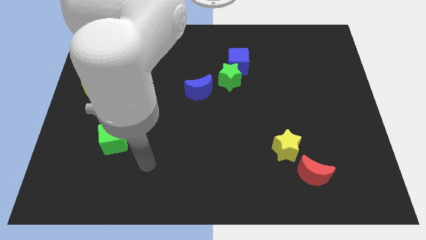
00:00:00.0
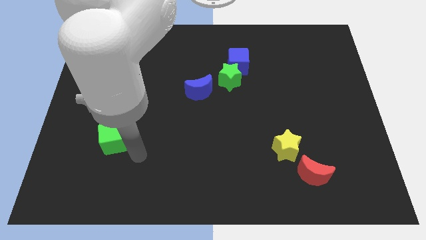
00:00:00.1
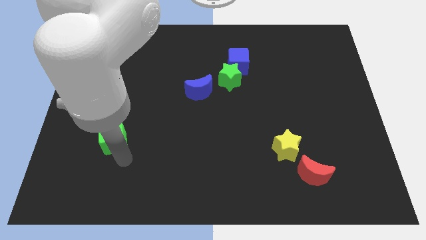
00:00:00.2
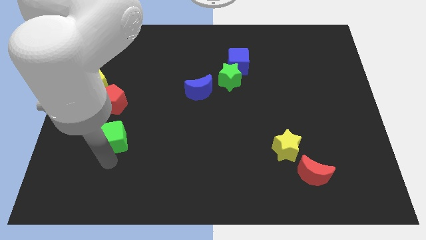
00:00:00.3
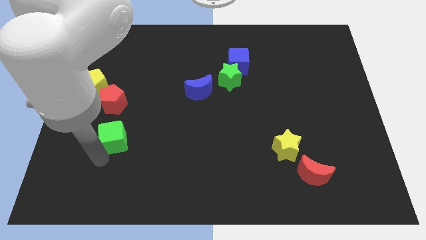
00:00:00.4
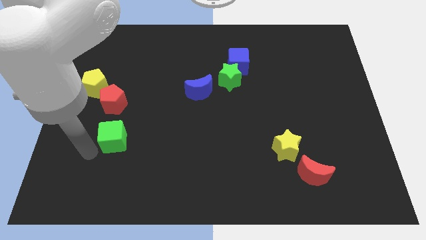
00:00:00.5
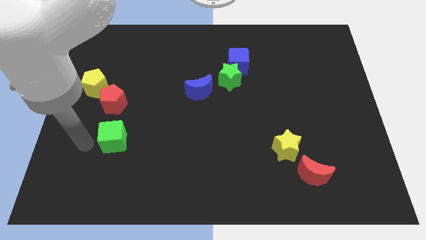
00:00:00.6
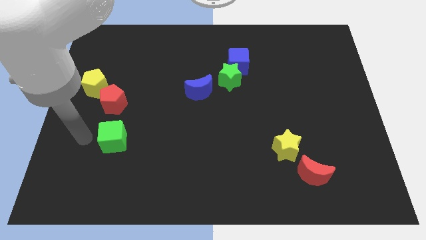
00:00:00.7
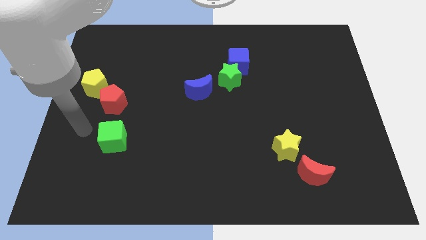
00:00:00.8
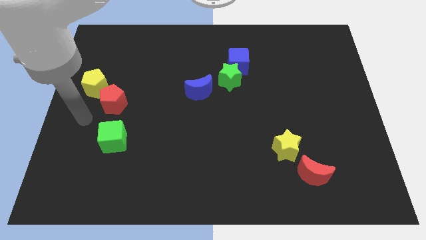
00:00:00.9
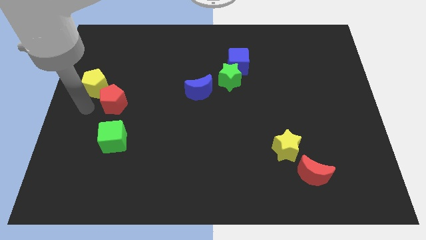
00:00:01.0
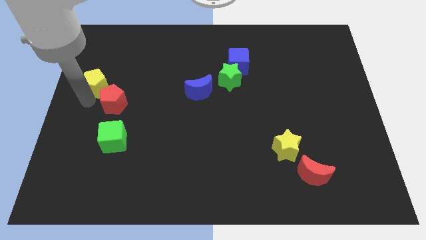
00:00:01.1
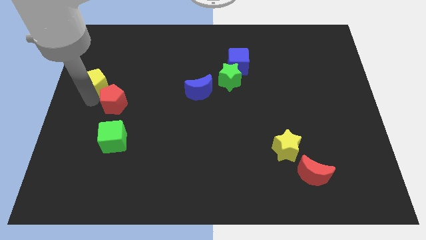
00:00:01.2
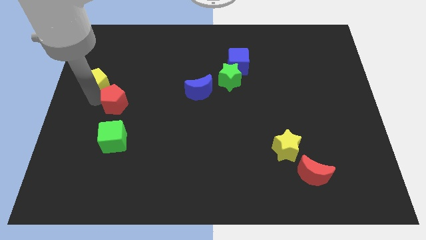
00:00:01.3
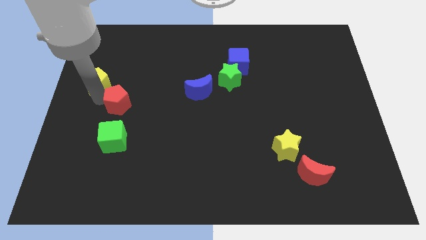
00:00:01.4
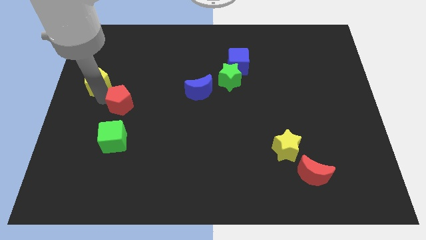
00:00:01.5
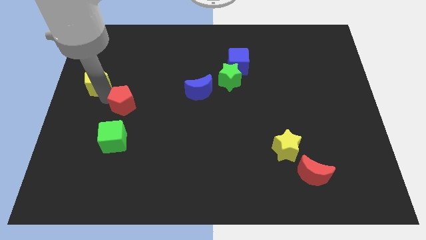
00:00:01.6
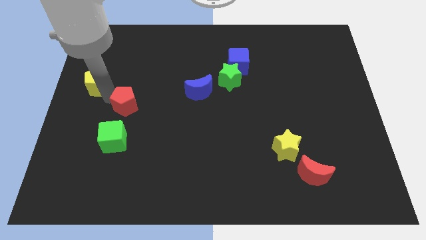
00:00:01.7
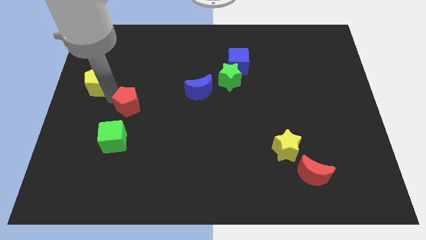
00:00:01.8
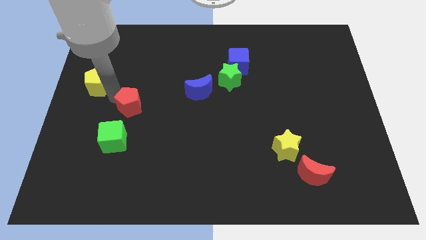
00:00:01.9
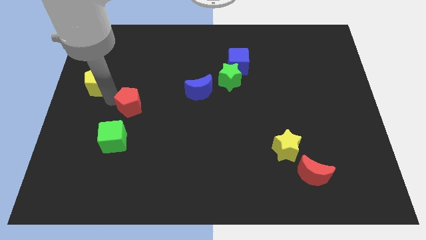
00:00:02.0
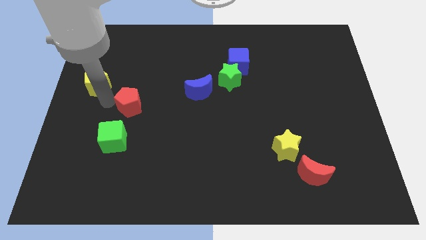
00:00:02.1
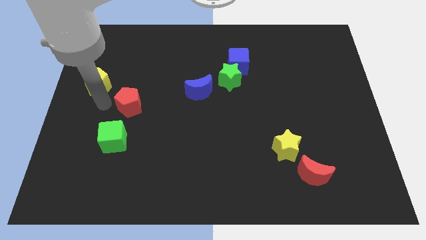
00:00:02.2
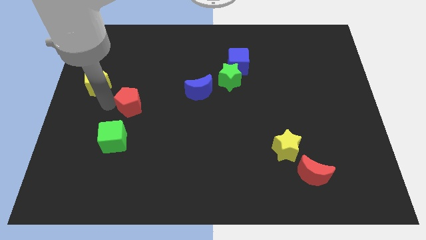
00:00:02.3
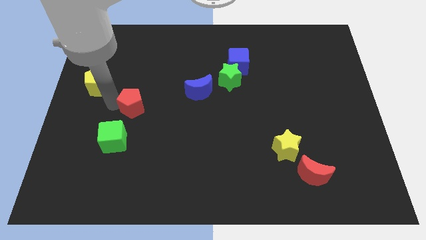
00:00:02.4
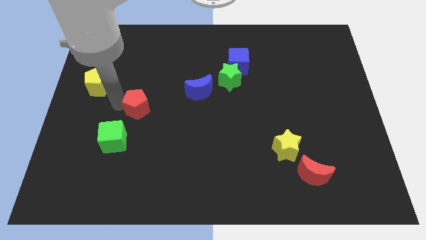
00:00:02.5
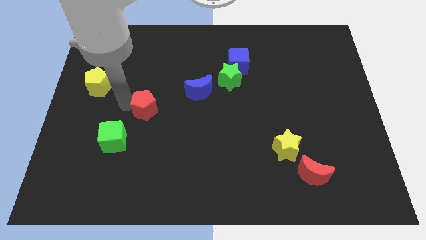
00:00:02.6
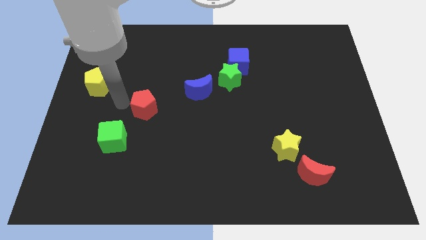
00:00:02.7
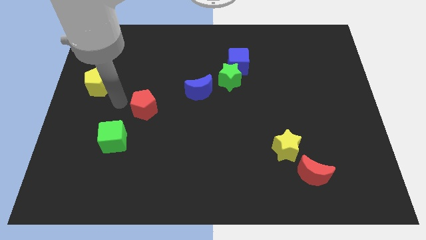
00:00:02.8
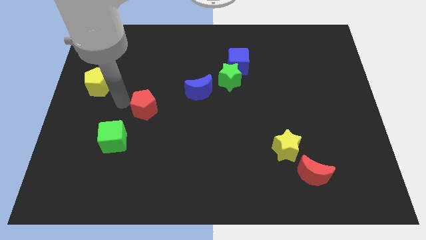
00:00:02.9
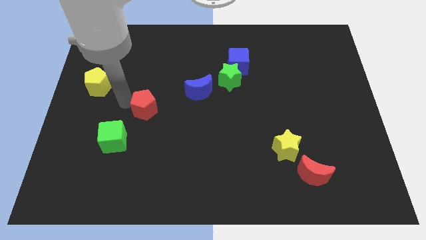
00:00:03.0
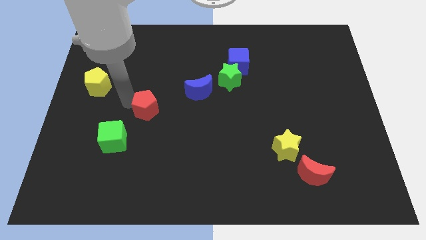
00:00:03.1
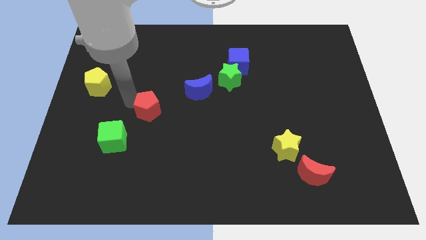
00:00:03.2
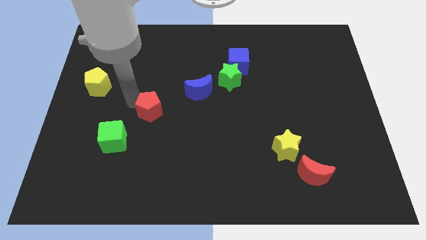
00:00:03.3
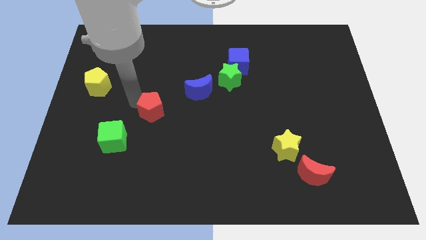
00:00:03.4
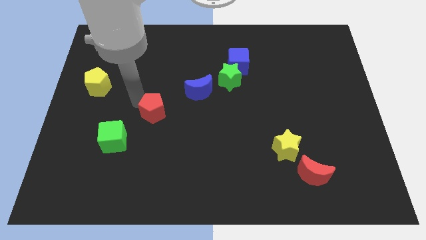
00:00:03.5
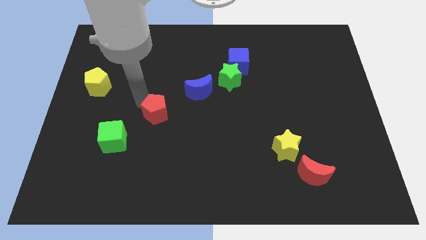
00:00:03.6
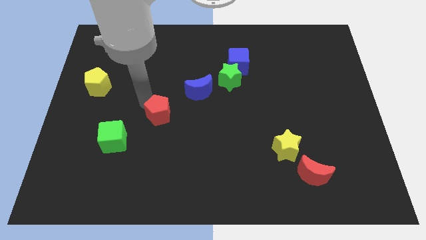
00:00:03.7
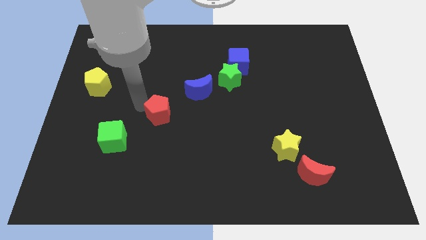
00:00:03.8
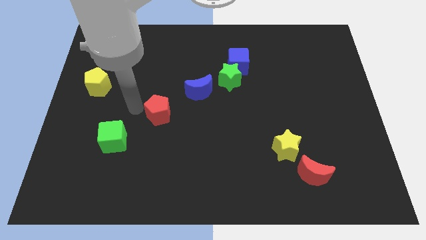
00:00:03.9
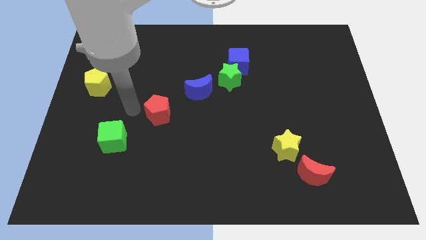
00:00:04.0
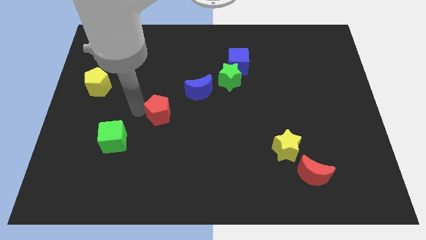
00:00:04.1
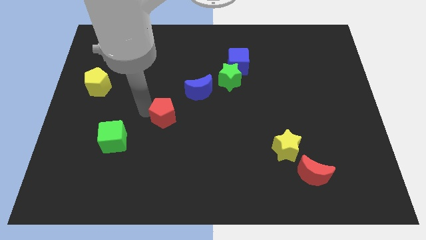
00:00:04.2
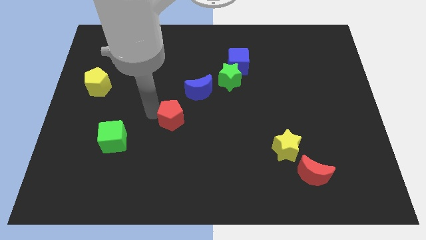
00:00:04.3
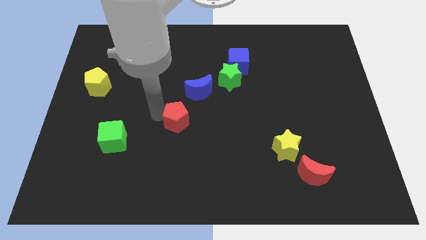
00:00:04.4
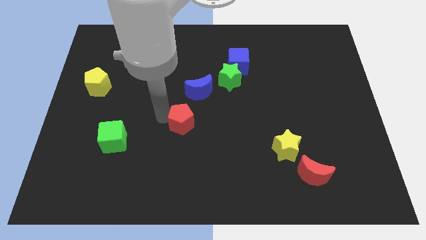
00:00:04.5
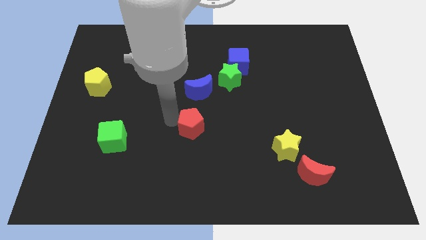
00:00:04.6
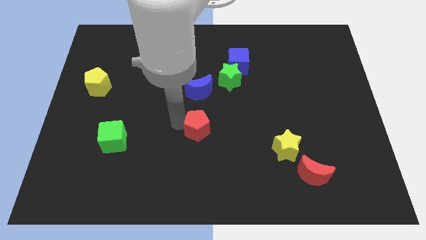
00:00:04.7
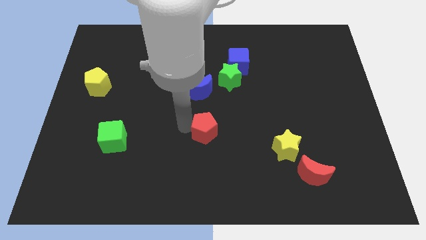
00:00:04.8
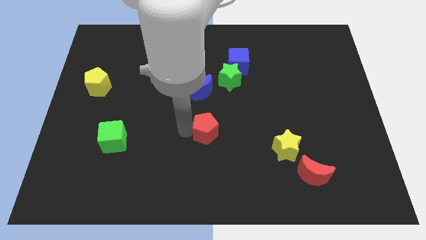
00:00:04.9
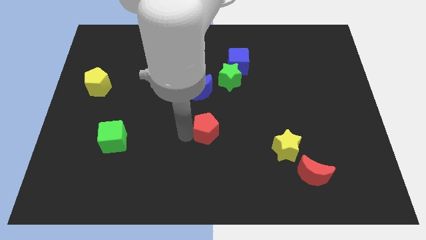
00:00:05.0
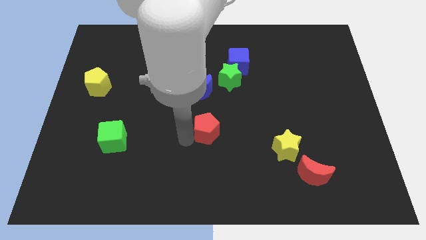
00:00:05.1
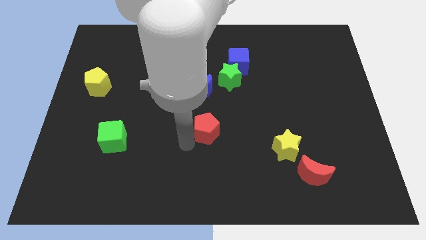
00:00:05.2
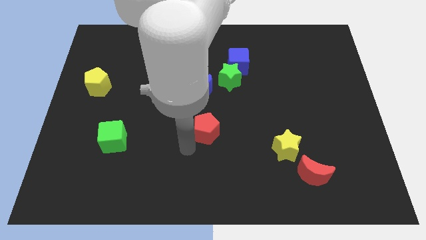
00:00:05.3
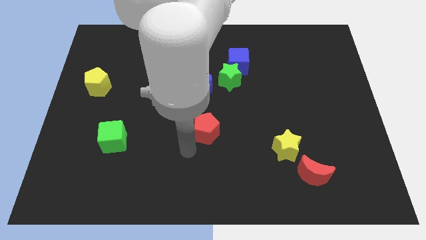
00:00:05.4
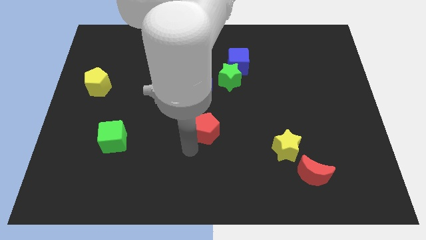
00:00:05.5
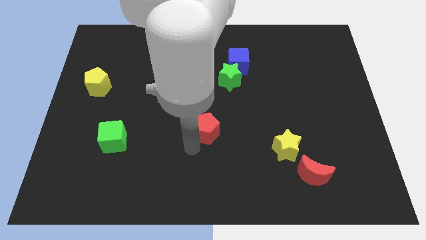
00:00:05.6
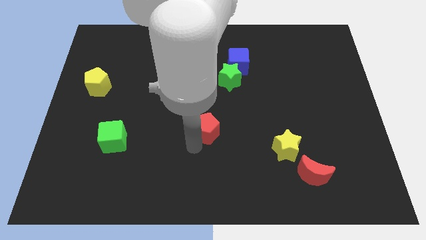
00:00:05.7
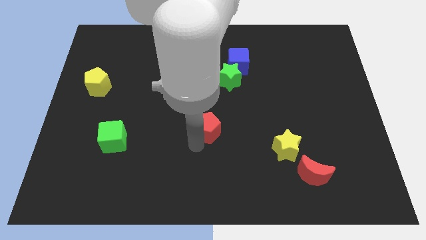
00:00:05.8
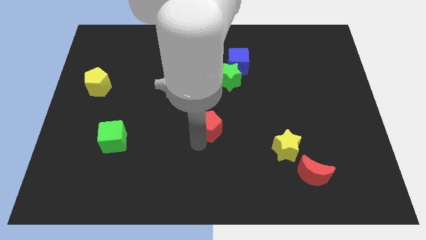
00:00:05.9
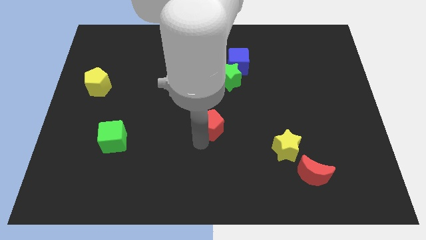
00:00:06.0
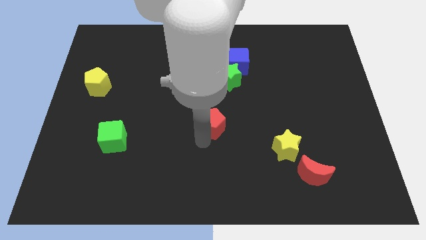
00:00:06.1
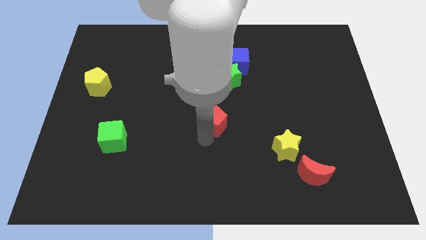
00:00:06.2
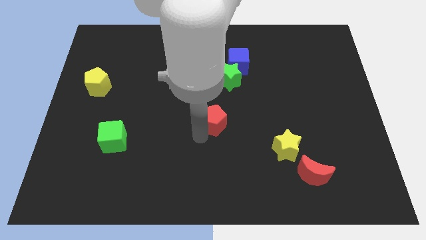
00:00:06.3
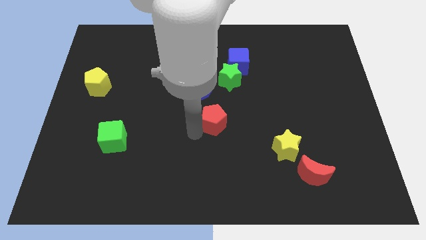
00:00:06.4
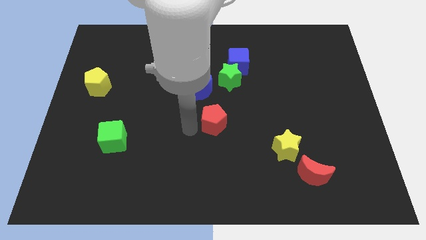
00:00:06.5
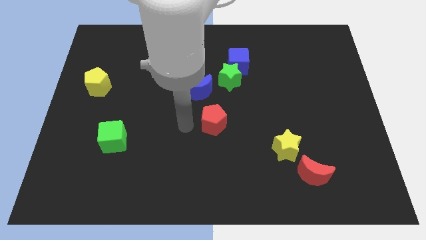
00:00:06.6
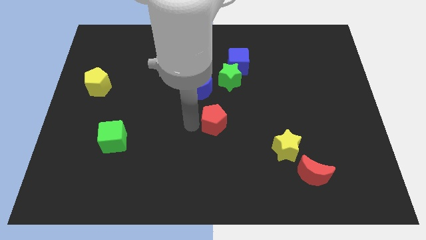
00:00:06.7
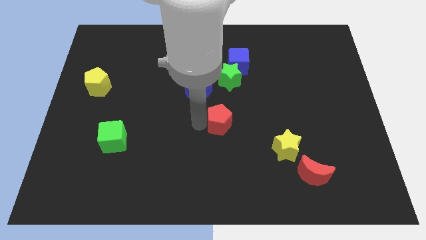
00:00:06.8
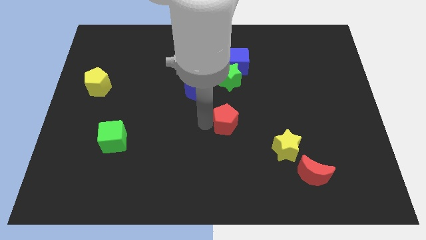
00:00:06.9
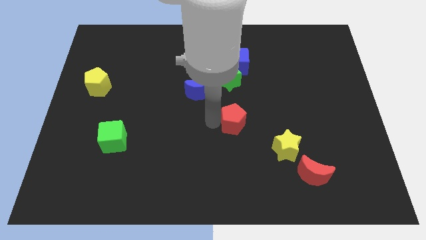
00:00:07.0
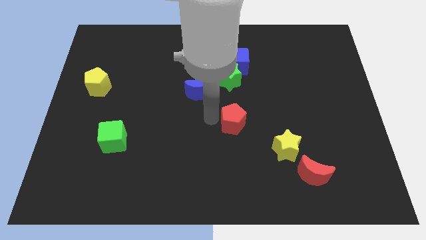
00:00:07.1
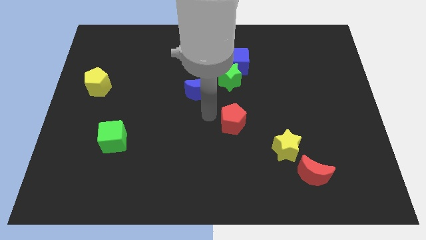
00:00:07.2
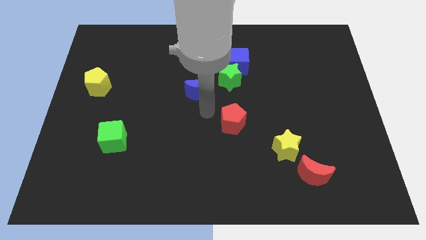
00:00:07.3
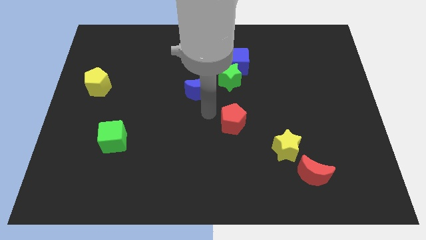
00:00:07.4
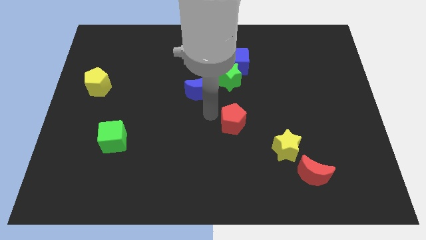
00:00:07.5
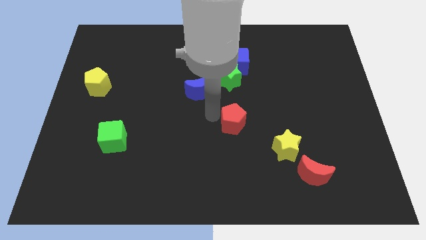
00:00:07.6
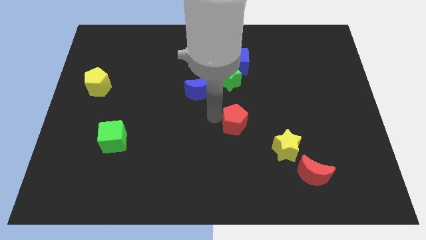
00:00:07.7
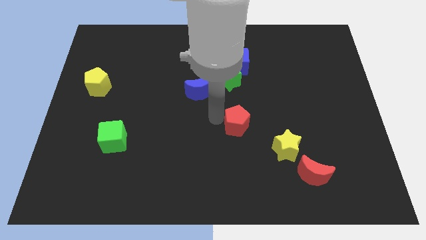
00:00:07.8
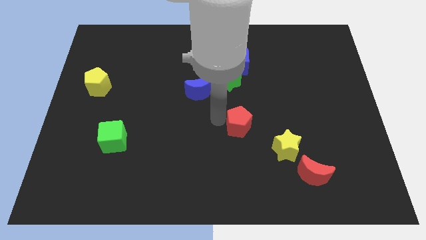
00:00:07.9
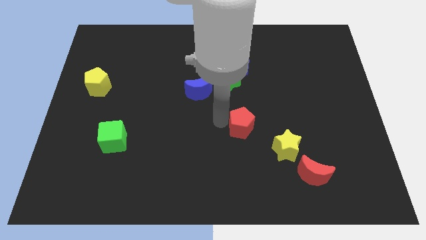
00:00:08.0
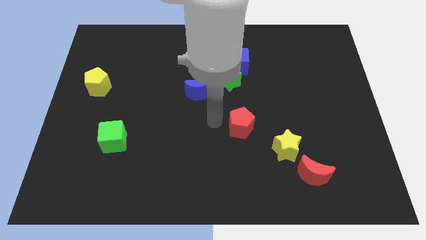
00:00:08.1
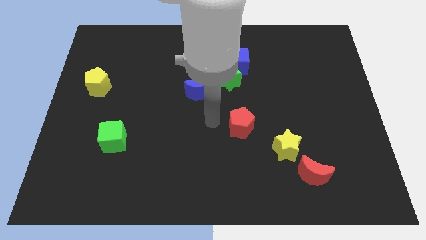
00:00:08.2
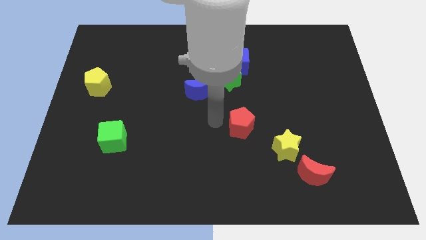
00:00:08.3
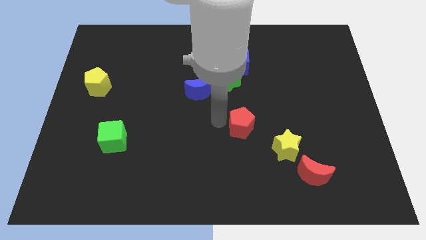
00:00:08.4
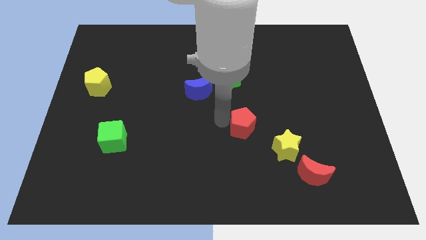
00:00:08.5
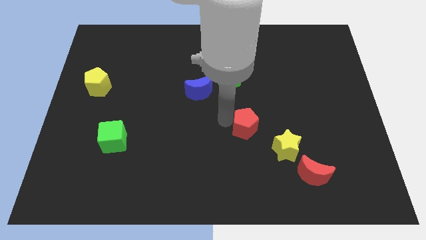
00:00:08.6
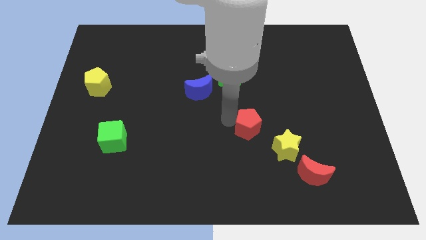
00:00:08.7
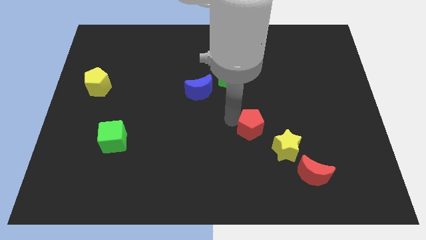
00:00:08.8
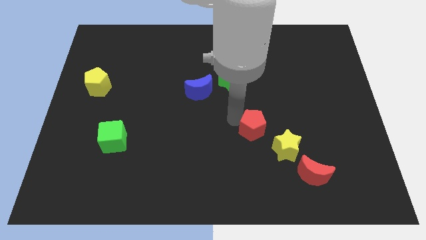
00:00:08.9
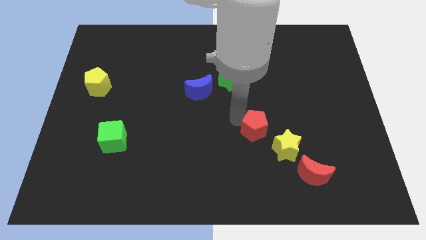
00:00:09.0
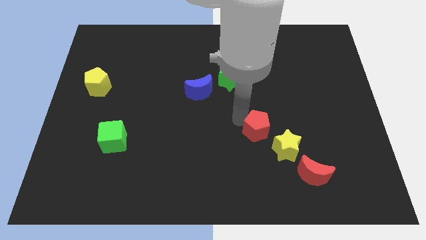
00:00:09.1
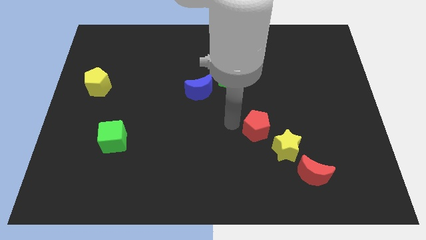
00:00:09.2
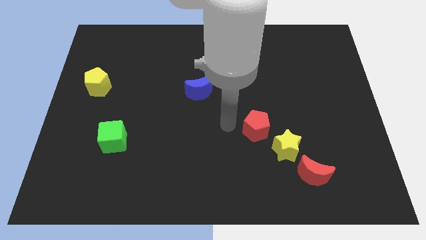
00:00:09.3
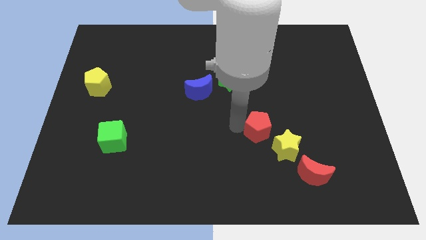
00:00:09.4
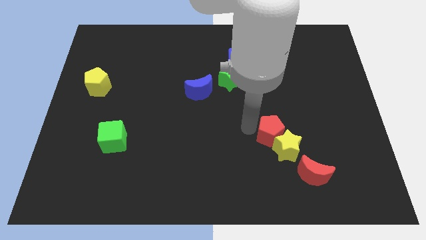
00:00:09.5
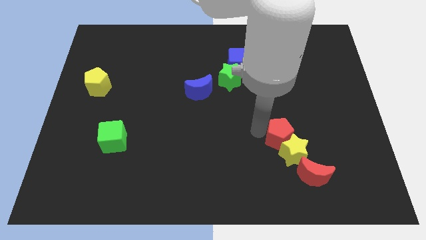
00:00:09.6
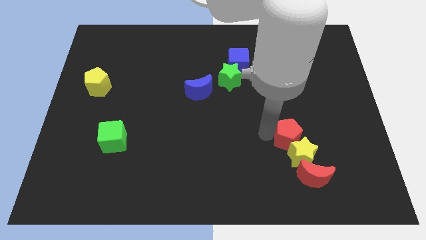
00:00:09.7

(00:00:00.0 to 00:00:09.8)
move the red pentagon to the top side of the red moon
